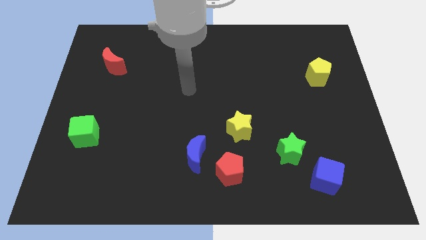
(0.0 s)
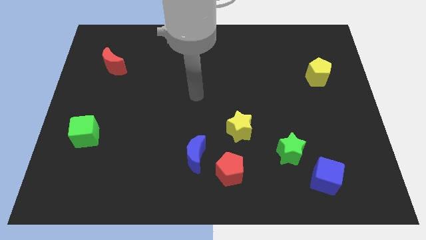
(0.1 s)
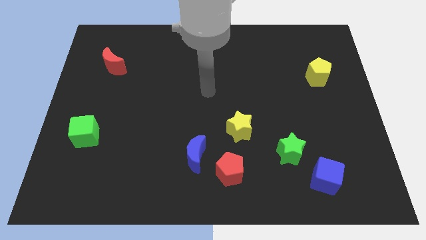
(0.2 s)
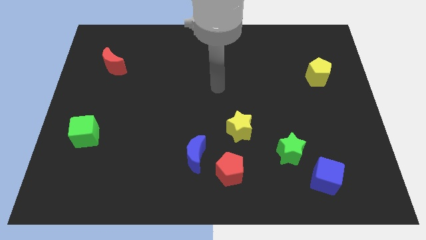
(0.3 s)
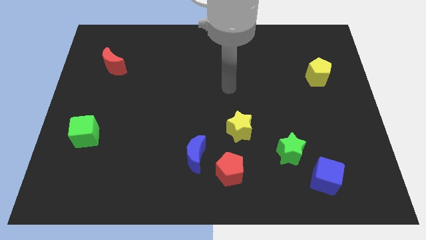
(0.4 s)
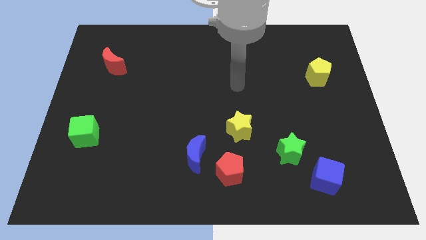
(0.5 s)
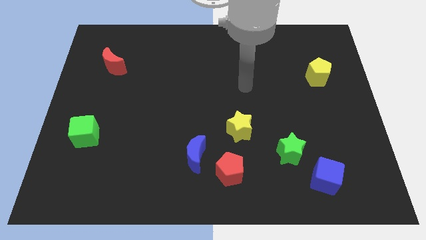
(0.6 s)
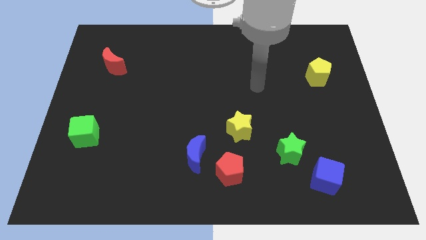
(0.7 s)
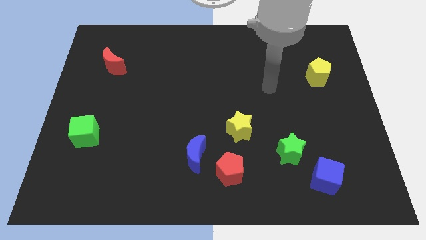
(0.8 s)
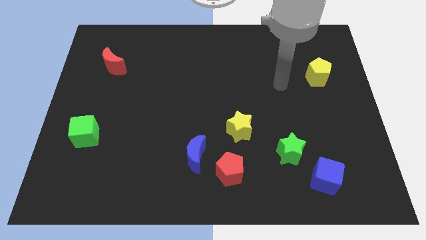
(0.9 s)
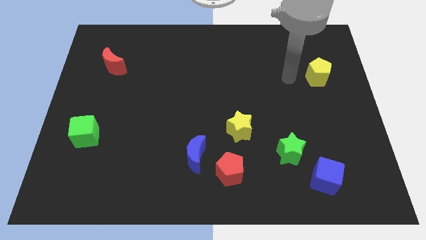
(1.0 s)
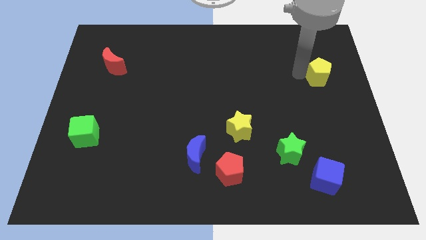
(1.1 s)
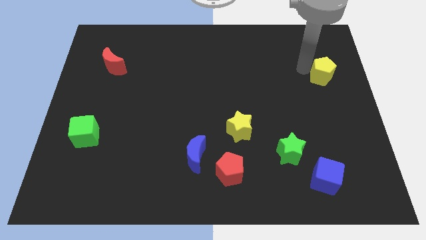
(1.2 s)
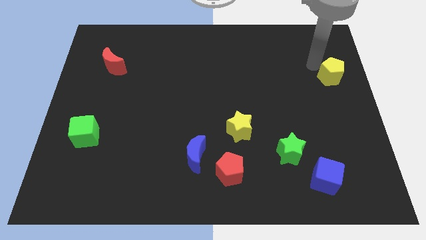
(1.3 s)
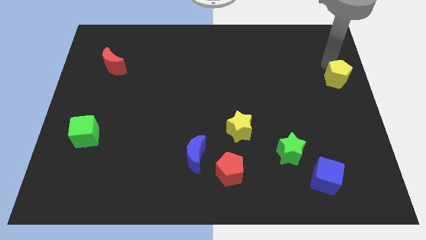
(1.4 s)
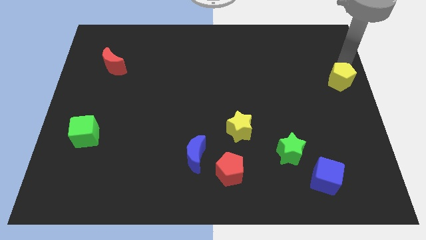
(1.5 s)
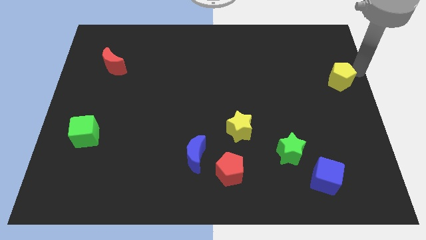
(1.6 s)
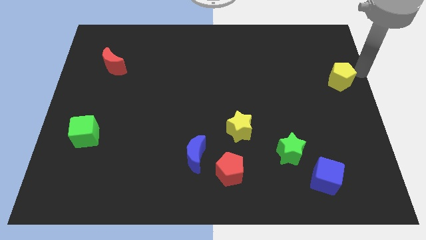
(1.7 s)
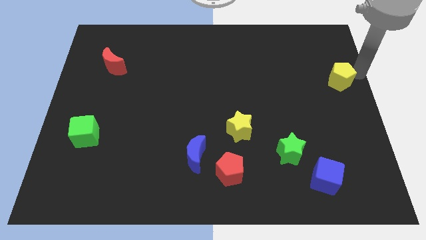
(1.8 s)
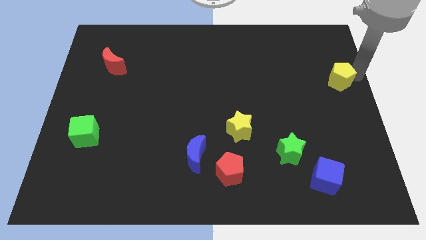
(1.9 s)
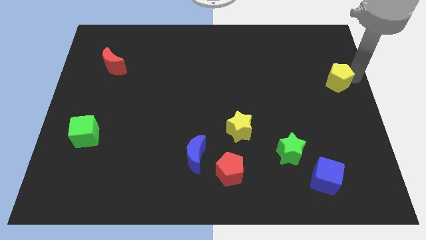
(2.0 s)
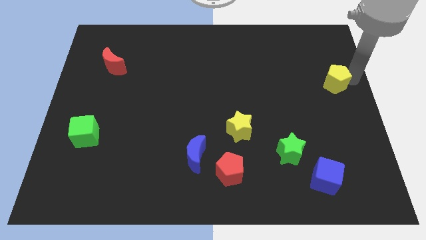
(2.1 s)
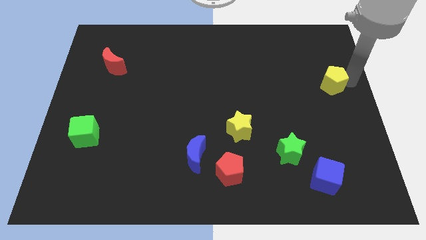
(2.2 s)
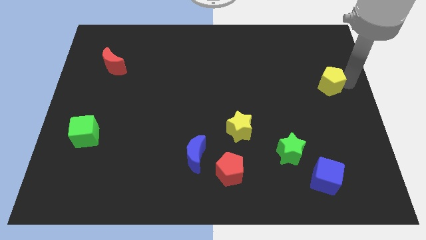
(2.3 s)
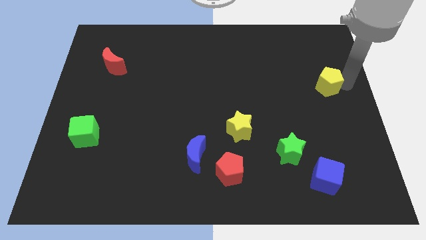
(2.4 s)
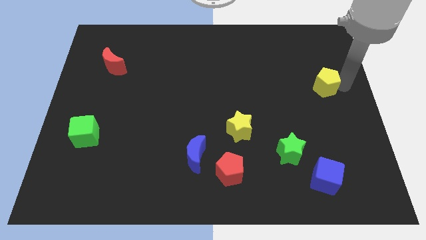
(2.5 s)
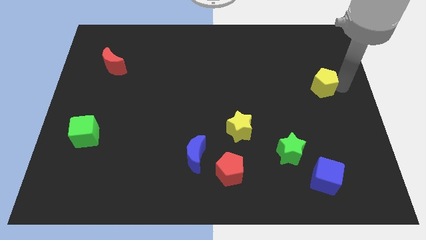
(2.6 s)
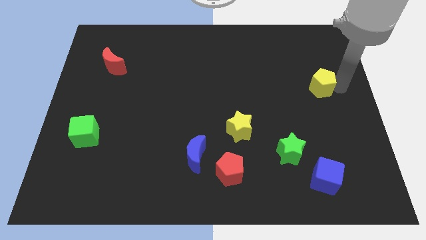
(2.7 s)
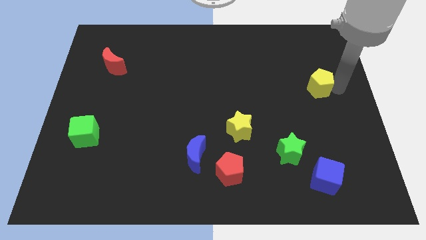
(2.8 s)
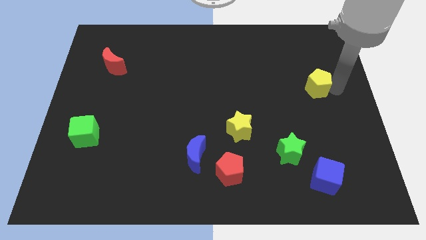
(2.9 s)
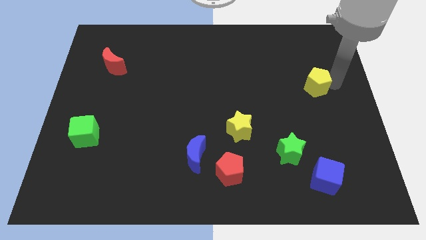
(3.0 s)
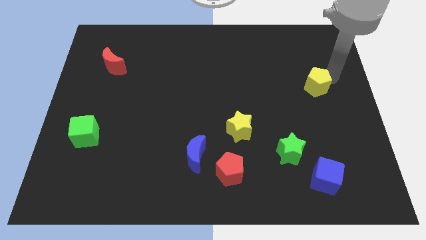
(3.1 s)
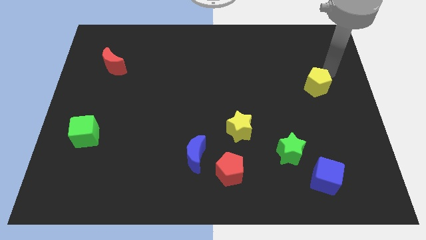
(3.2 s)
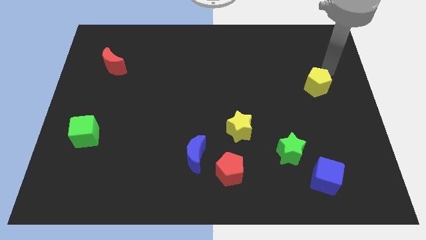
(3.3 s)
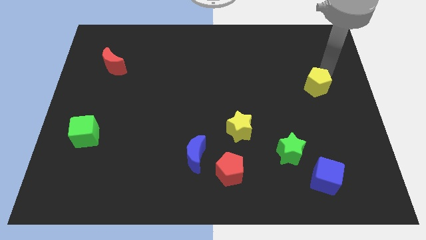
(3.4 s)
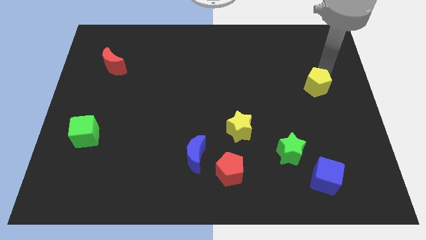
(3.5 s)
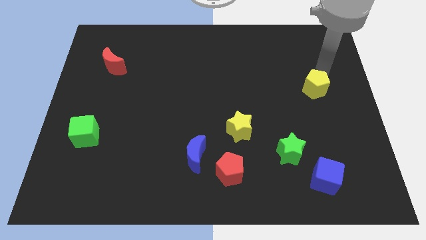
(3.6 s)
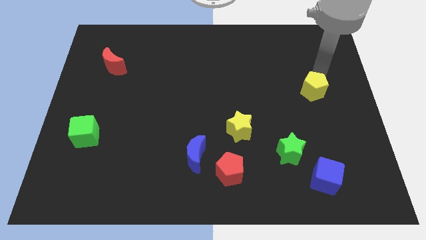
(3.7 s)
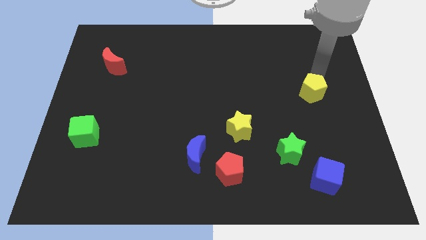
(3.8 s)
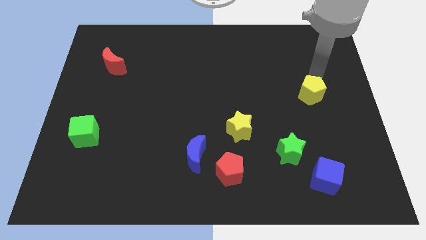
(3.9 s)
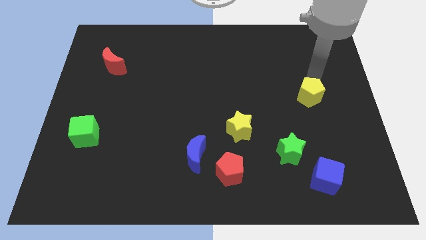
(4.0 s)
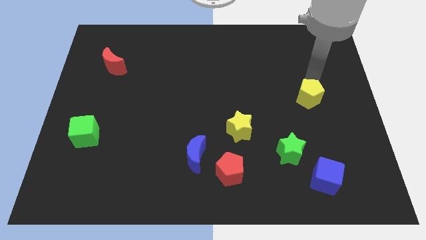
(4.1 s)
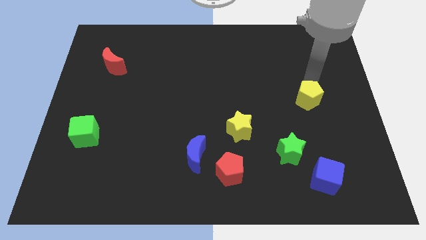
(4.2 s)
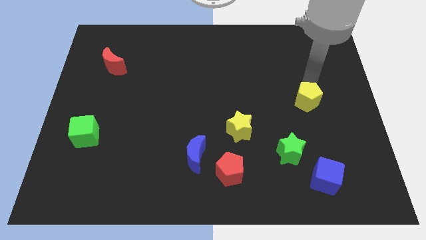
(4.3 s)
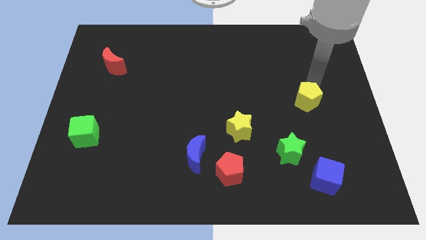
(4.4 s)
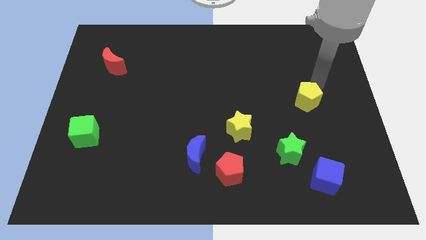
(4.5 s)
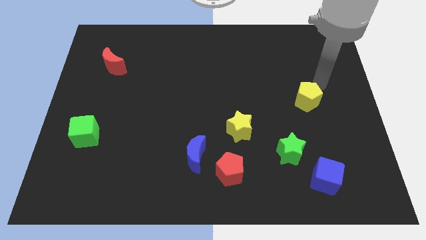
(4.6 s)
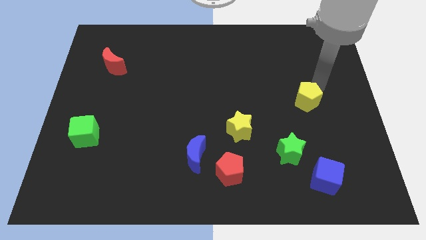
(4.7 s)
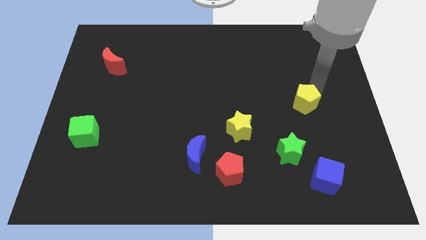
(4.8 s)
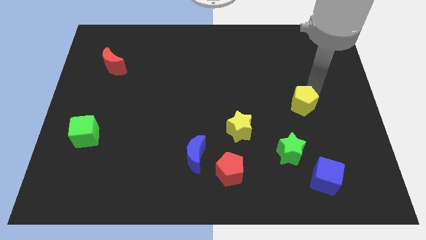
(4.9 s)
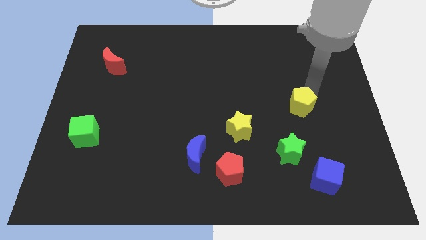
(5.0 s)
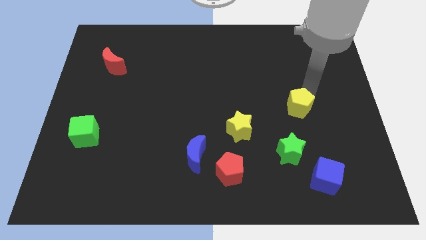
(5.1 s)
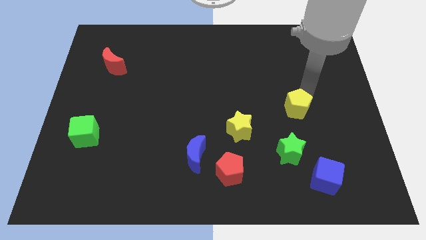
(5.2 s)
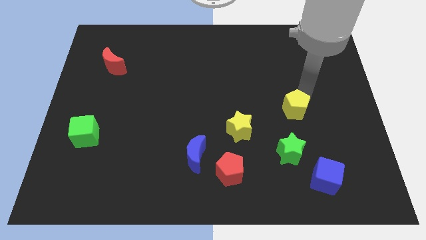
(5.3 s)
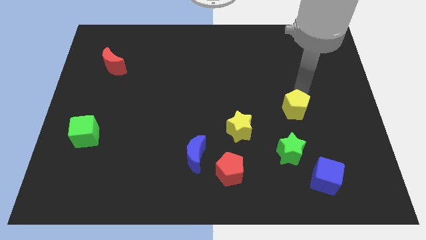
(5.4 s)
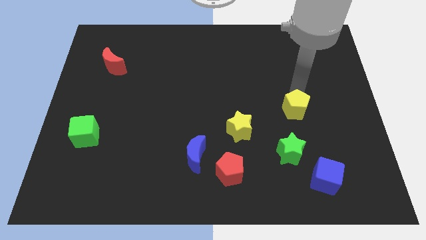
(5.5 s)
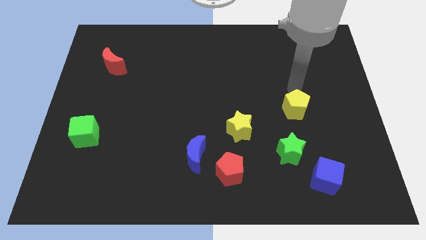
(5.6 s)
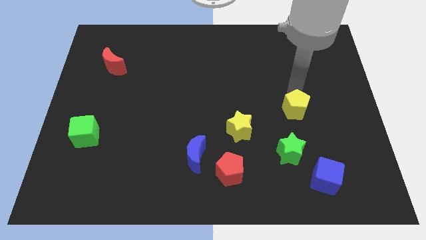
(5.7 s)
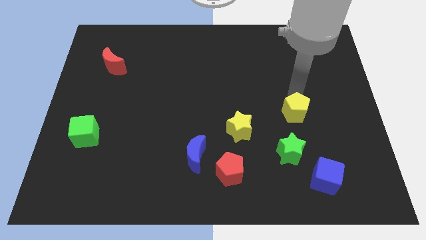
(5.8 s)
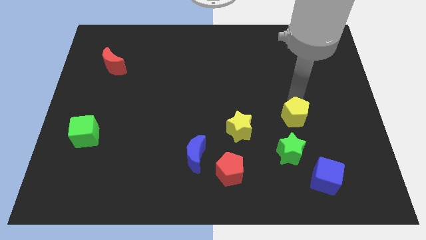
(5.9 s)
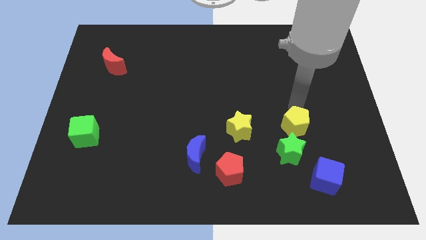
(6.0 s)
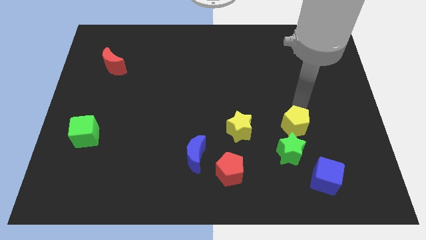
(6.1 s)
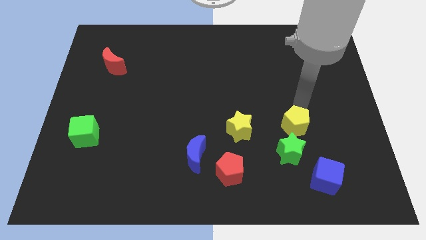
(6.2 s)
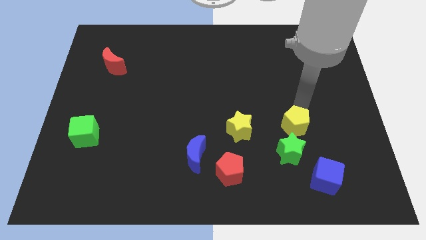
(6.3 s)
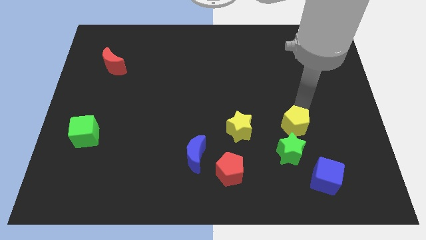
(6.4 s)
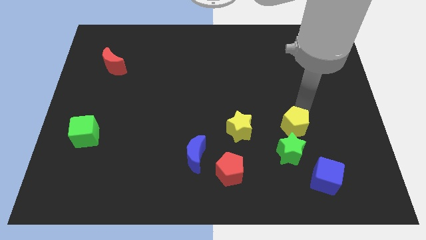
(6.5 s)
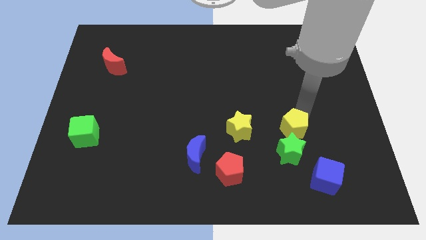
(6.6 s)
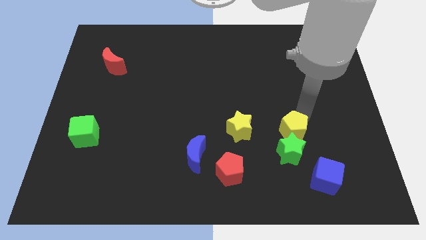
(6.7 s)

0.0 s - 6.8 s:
slide the yellow pentagon next to the green star

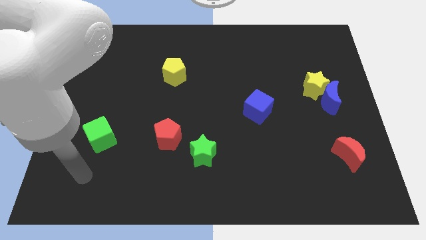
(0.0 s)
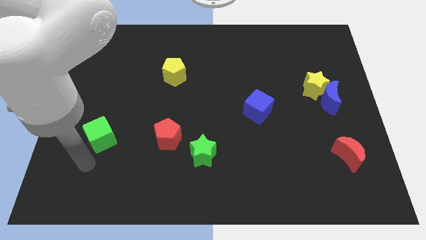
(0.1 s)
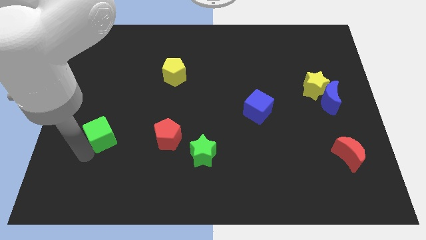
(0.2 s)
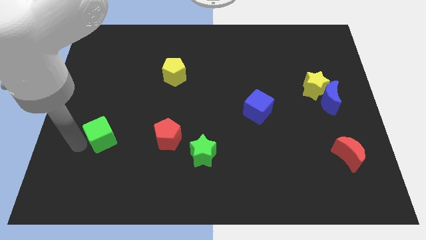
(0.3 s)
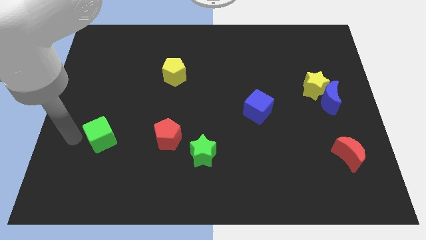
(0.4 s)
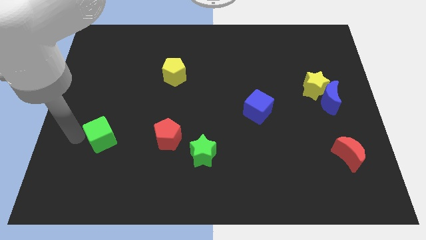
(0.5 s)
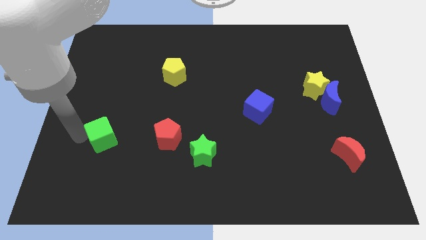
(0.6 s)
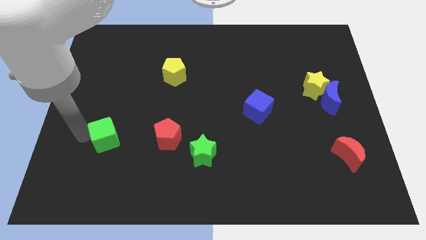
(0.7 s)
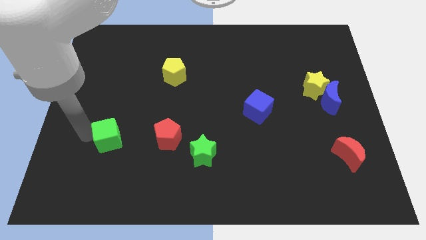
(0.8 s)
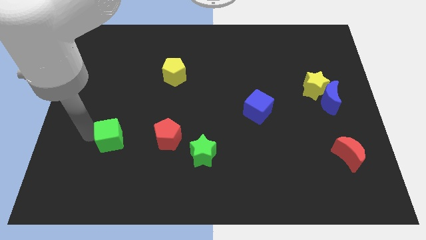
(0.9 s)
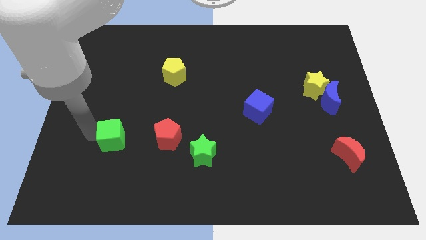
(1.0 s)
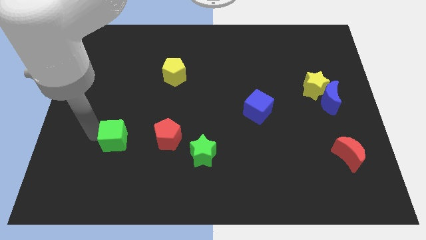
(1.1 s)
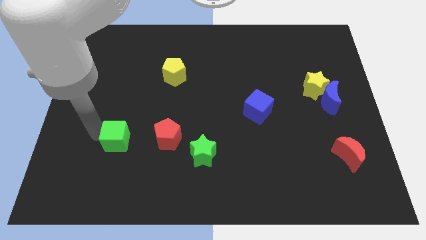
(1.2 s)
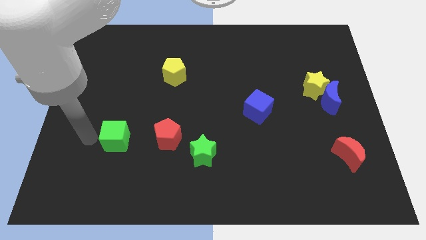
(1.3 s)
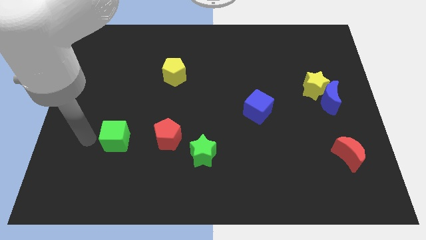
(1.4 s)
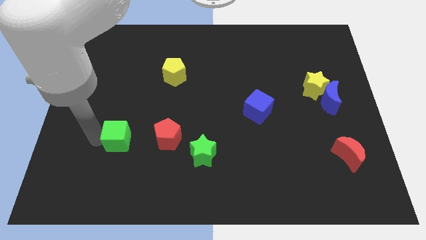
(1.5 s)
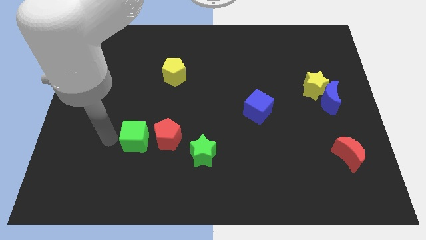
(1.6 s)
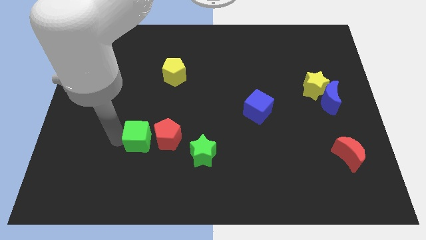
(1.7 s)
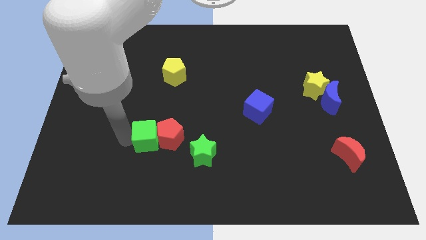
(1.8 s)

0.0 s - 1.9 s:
push the green cube towards the red pentagon
